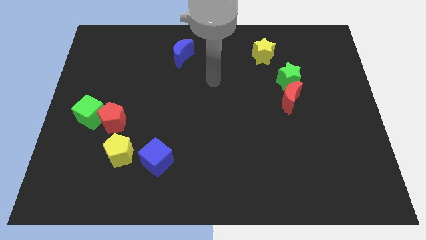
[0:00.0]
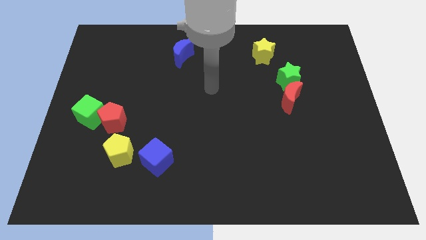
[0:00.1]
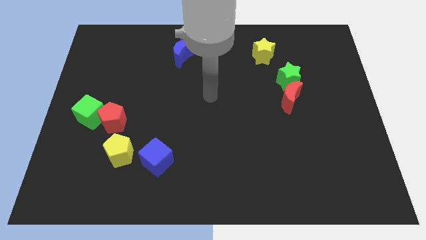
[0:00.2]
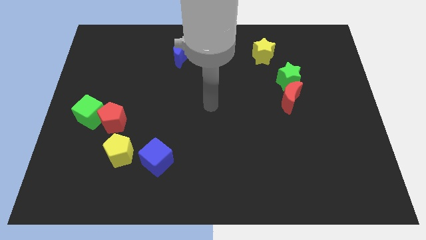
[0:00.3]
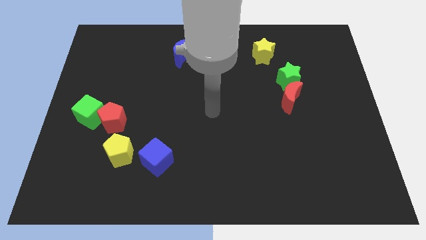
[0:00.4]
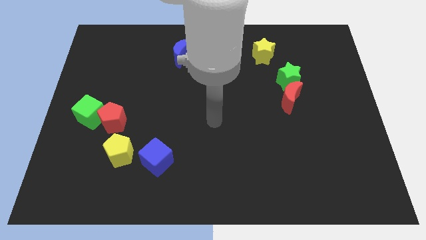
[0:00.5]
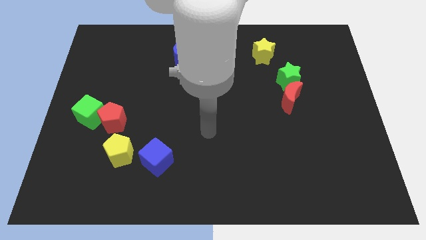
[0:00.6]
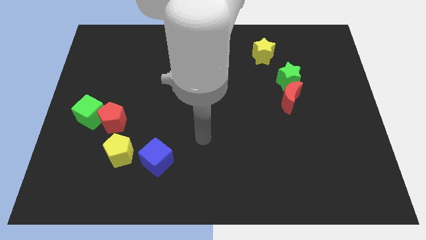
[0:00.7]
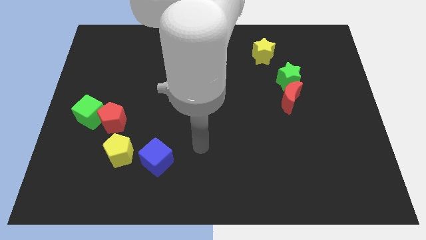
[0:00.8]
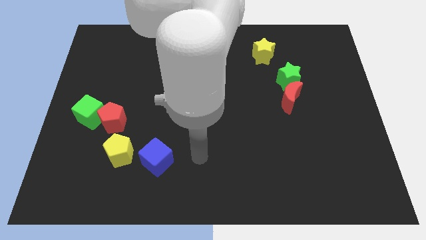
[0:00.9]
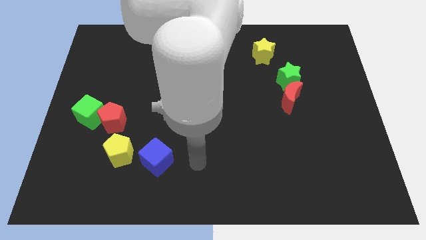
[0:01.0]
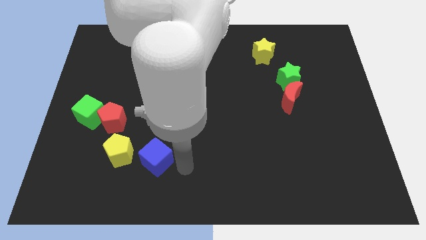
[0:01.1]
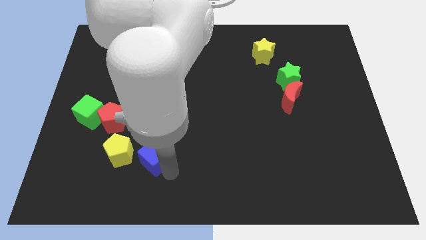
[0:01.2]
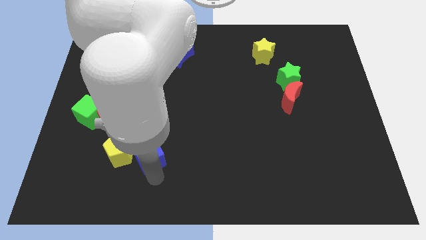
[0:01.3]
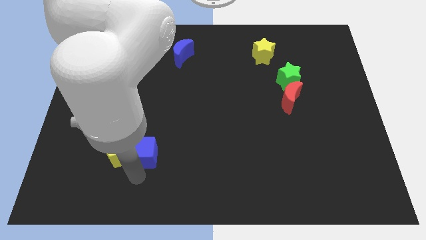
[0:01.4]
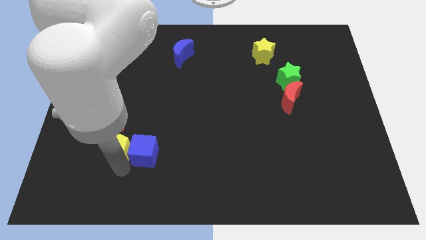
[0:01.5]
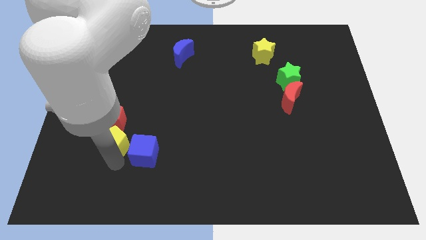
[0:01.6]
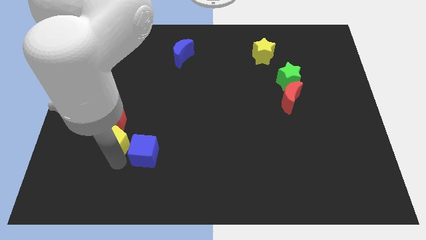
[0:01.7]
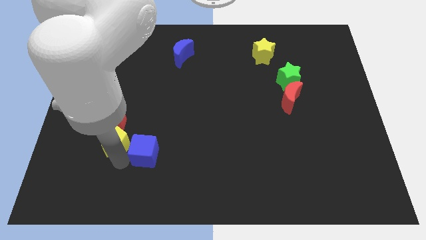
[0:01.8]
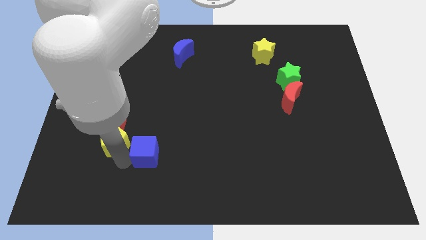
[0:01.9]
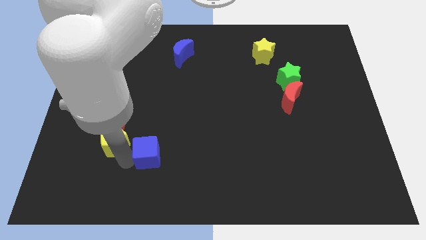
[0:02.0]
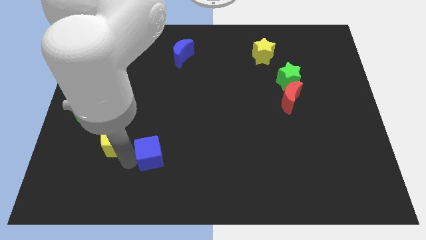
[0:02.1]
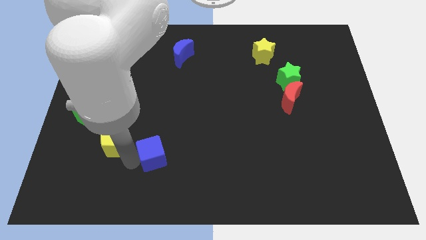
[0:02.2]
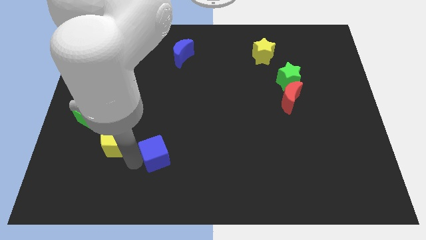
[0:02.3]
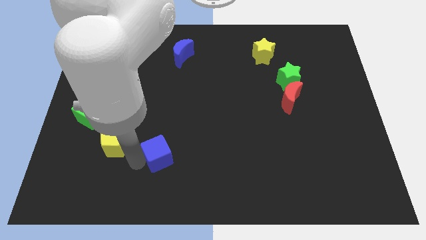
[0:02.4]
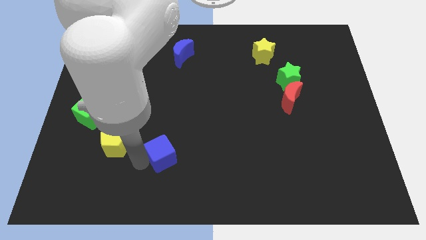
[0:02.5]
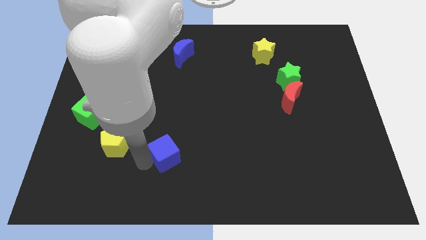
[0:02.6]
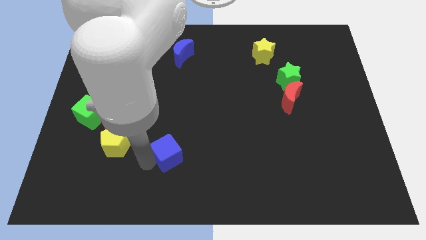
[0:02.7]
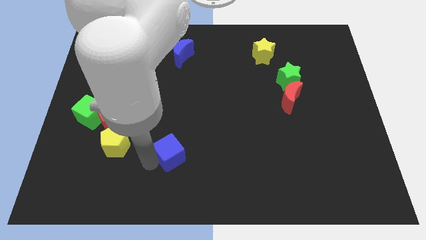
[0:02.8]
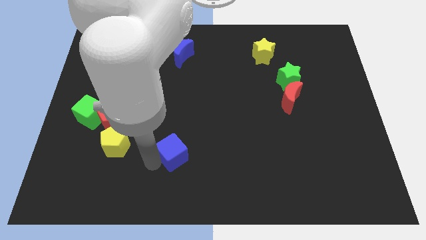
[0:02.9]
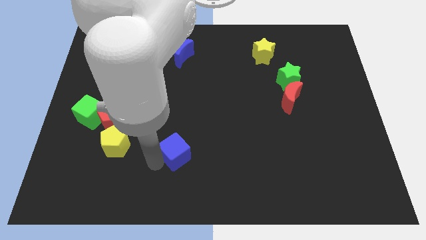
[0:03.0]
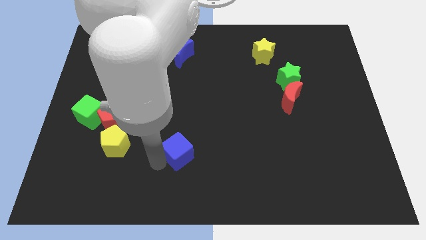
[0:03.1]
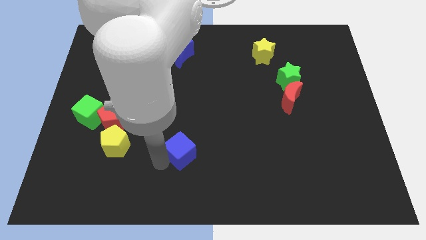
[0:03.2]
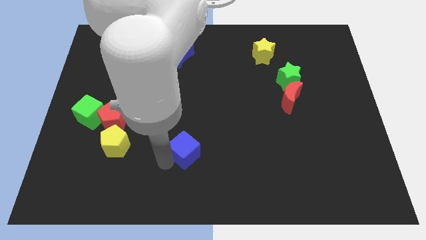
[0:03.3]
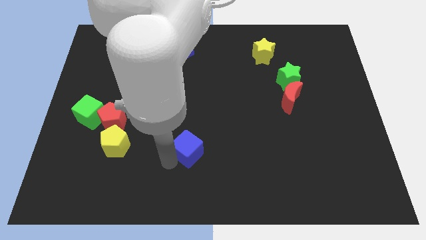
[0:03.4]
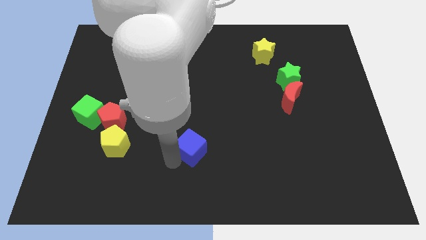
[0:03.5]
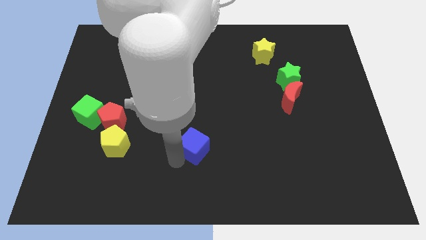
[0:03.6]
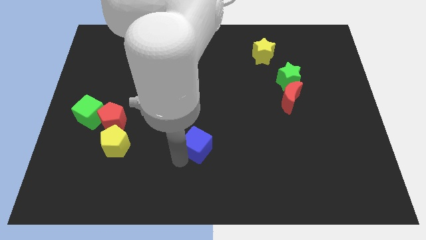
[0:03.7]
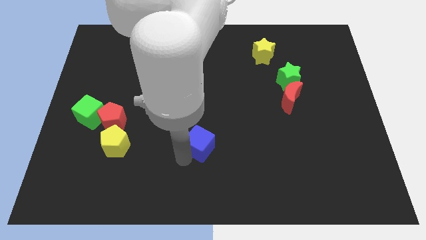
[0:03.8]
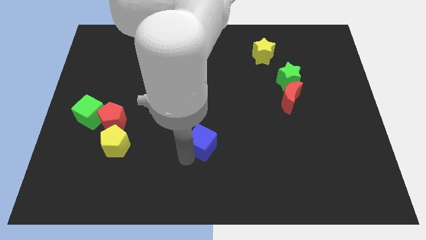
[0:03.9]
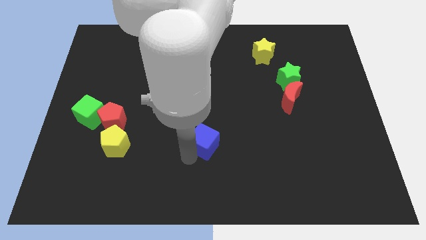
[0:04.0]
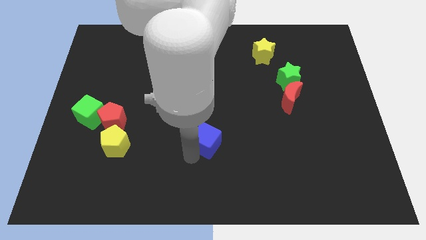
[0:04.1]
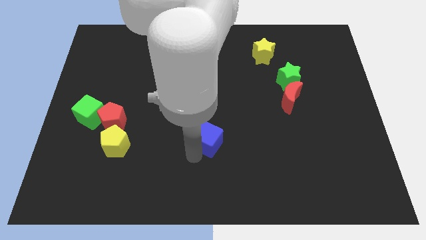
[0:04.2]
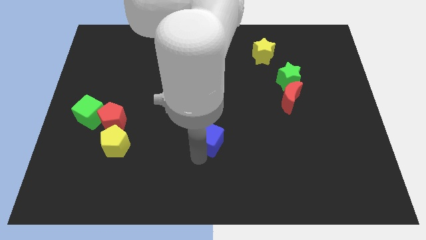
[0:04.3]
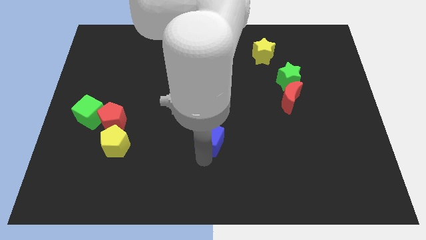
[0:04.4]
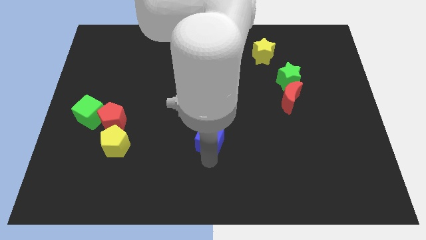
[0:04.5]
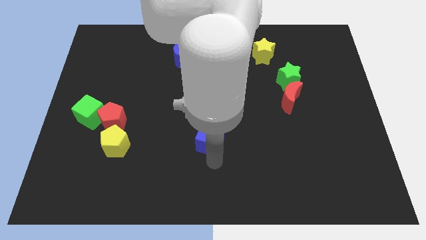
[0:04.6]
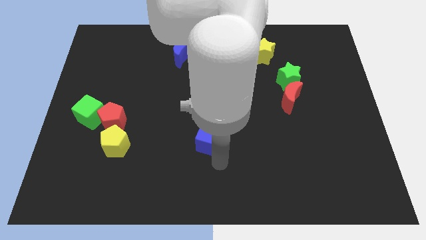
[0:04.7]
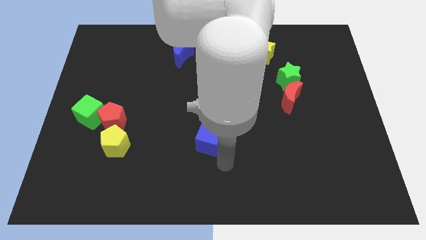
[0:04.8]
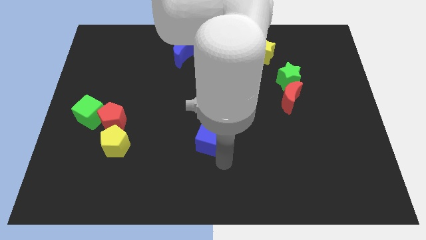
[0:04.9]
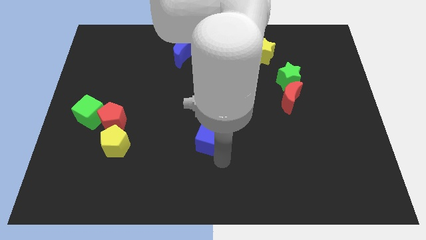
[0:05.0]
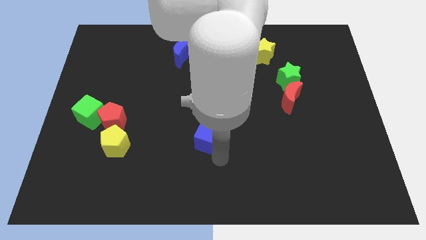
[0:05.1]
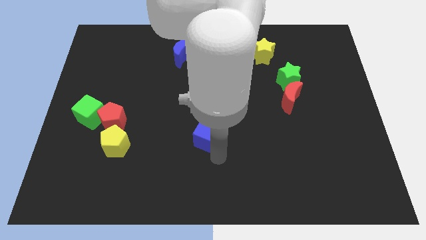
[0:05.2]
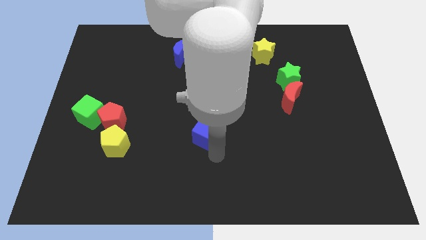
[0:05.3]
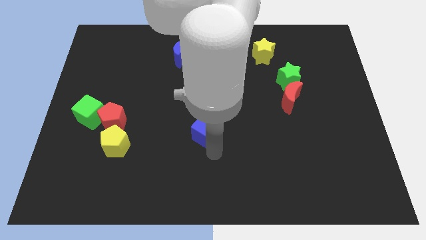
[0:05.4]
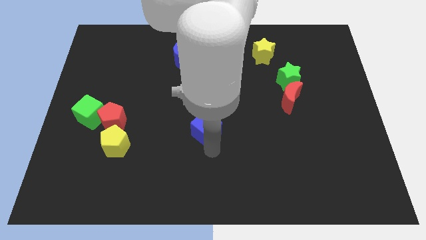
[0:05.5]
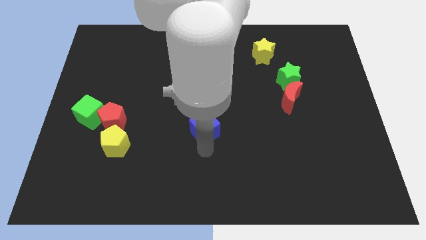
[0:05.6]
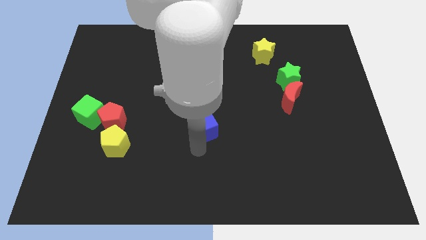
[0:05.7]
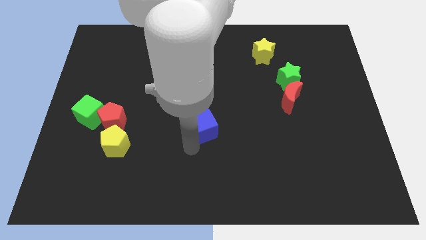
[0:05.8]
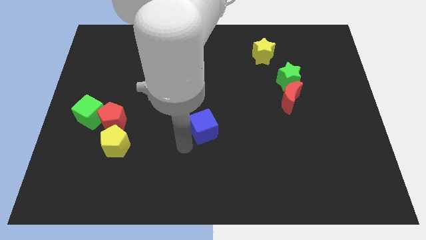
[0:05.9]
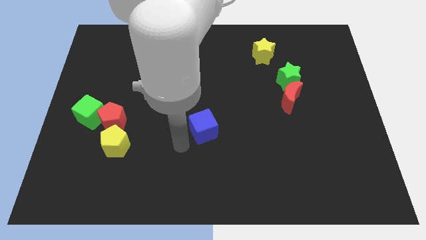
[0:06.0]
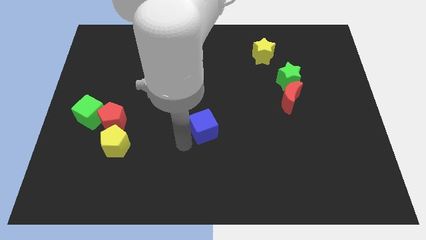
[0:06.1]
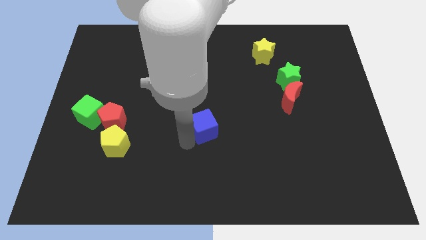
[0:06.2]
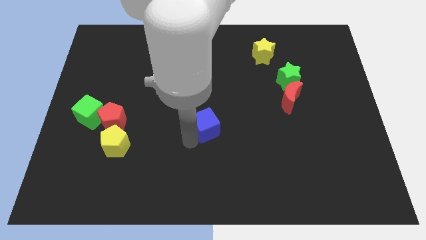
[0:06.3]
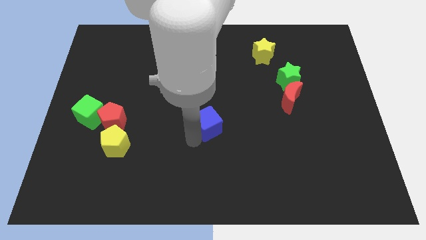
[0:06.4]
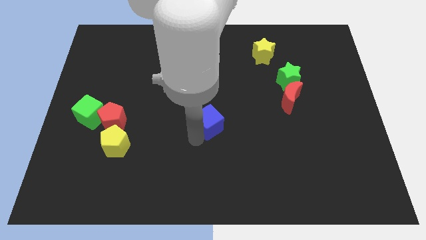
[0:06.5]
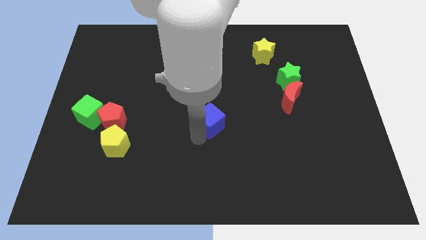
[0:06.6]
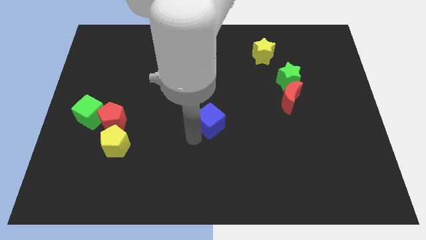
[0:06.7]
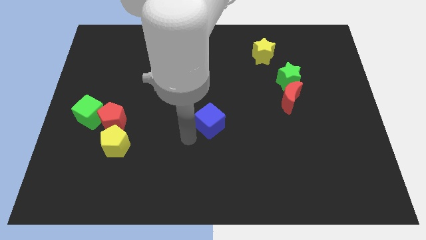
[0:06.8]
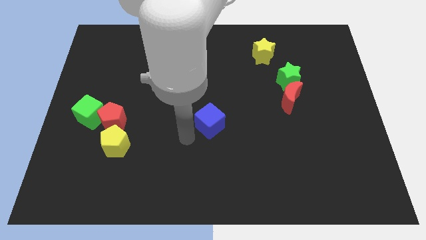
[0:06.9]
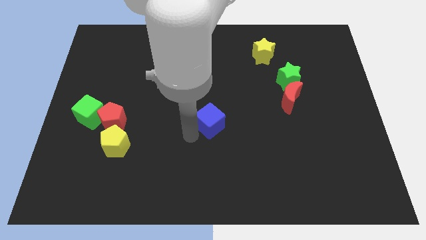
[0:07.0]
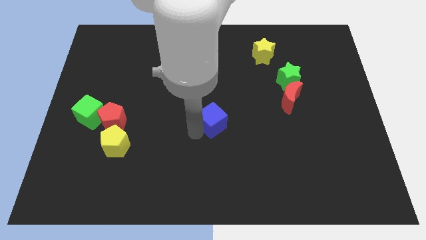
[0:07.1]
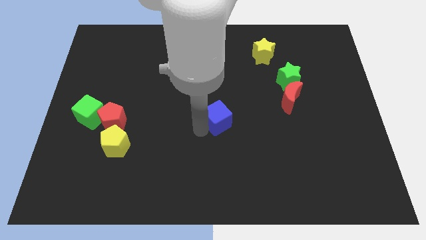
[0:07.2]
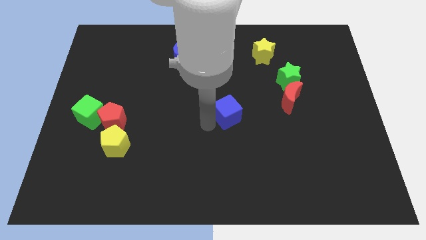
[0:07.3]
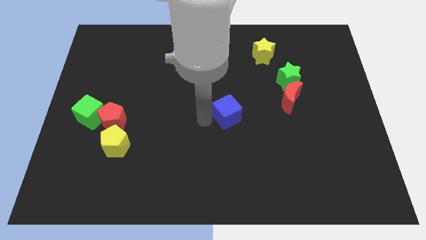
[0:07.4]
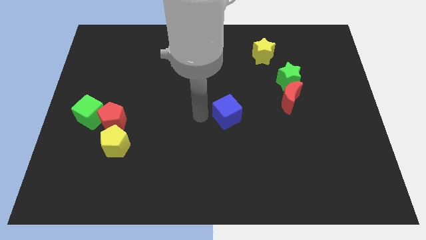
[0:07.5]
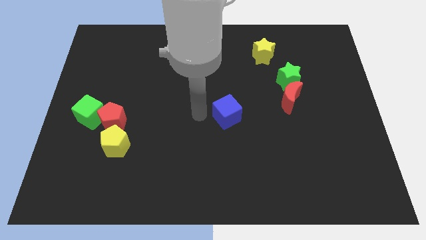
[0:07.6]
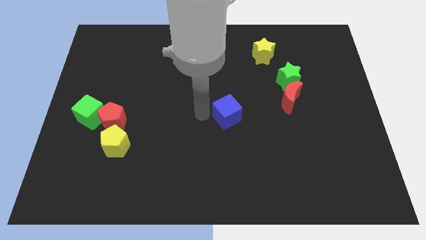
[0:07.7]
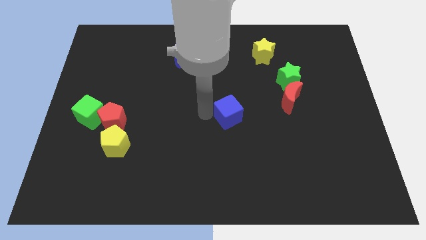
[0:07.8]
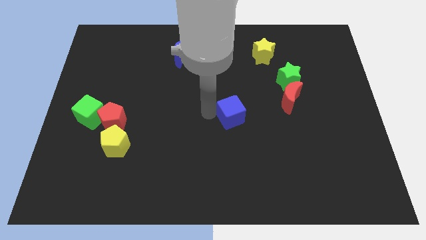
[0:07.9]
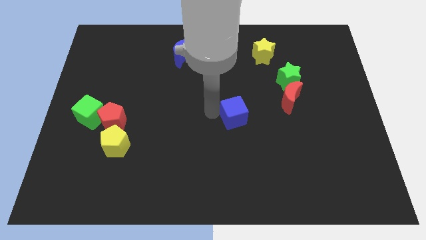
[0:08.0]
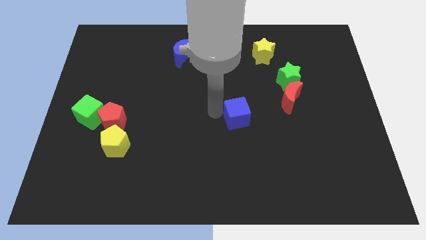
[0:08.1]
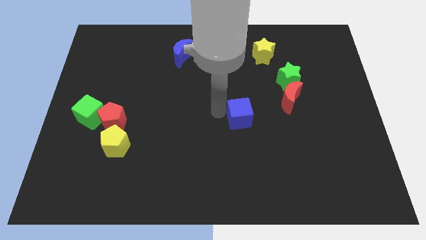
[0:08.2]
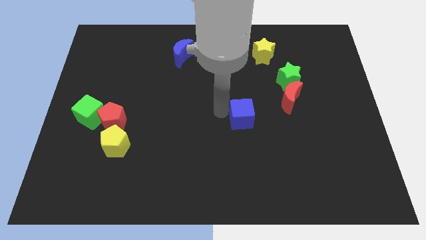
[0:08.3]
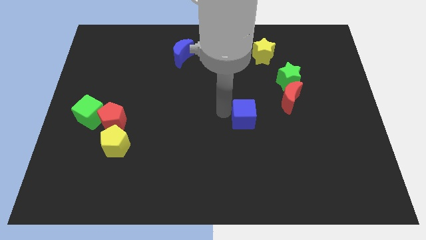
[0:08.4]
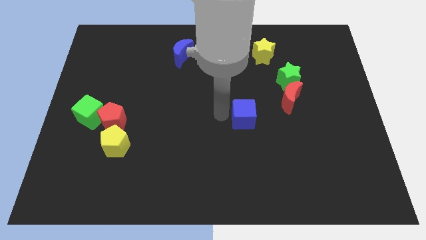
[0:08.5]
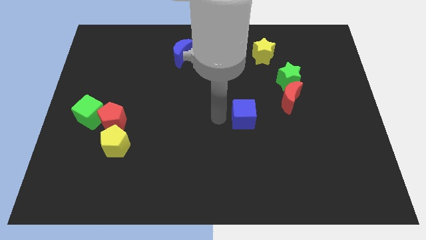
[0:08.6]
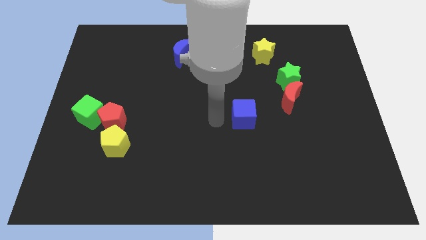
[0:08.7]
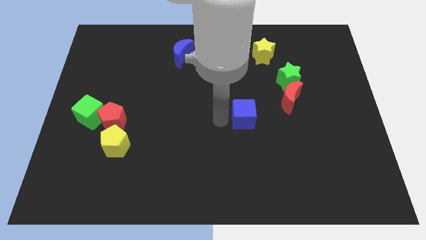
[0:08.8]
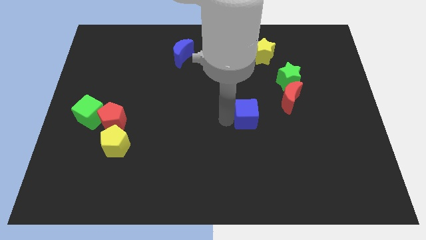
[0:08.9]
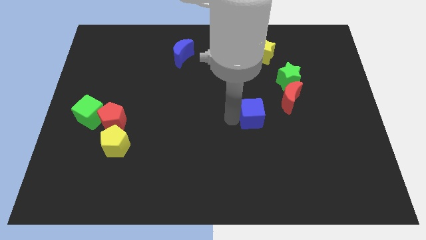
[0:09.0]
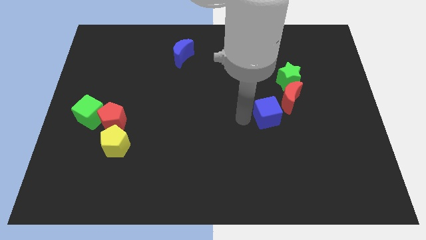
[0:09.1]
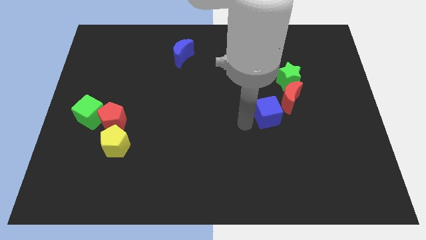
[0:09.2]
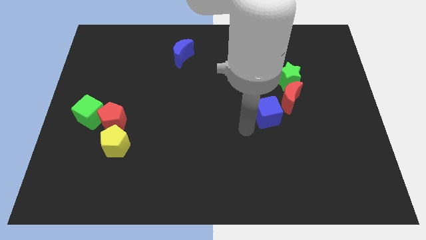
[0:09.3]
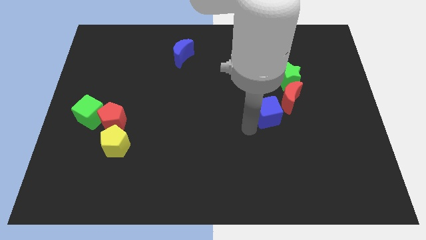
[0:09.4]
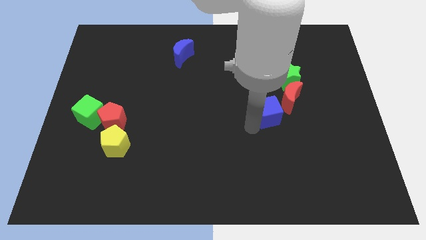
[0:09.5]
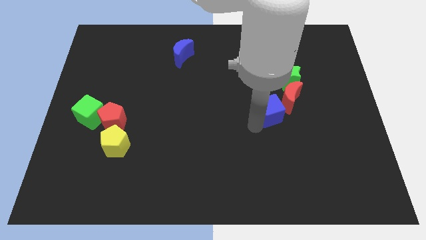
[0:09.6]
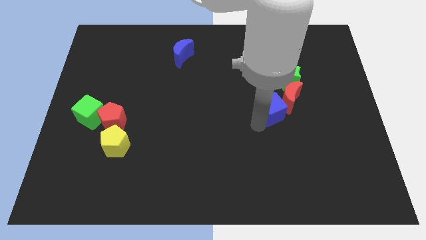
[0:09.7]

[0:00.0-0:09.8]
slide the blue cube close to the red moon
